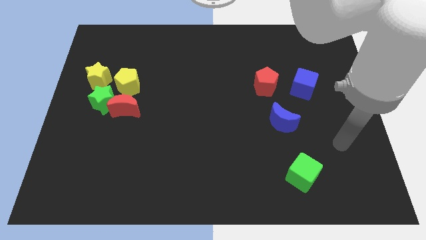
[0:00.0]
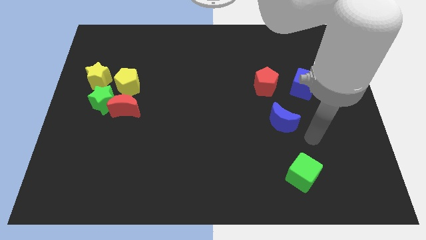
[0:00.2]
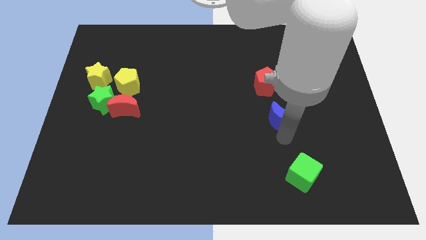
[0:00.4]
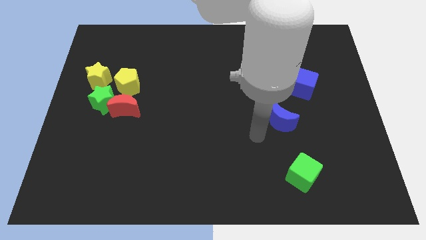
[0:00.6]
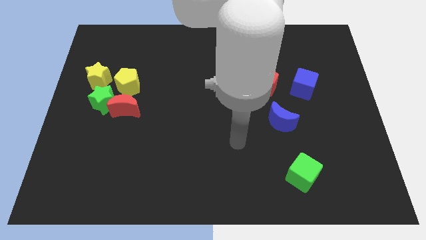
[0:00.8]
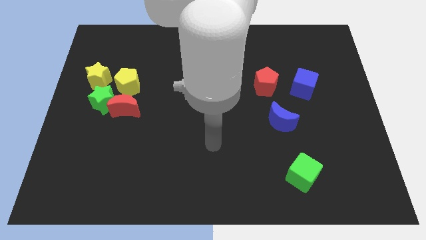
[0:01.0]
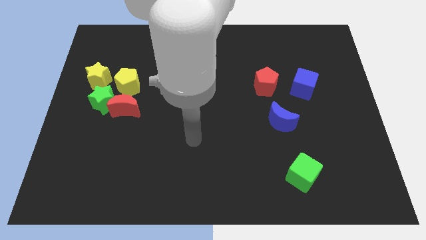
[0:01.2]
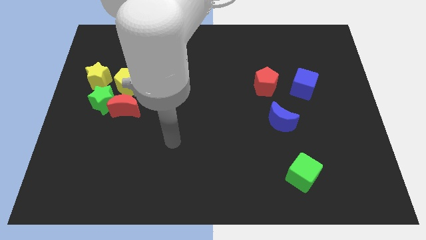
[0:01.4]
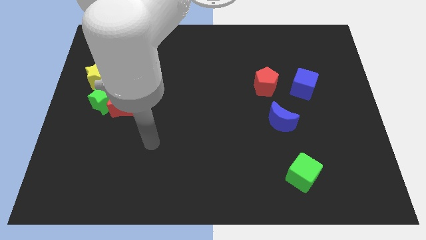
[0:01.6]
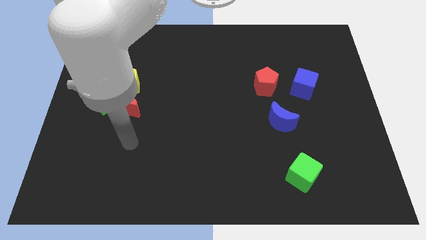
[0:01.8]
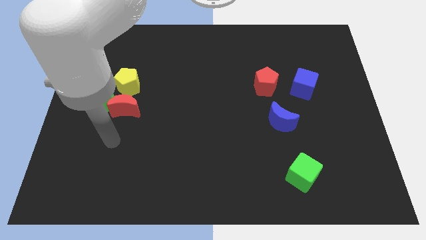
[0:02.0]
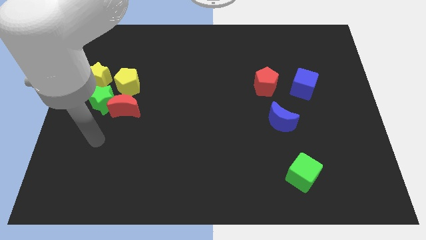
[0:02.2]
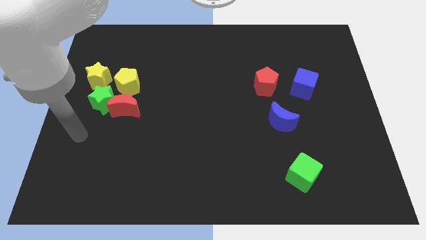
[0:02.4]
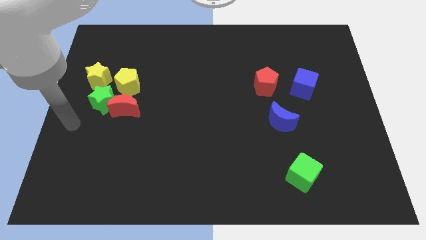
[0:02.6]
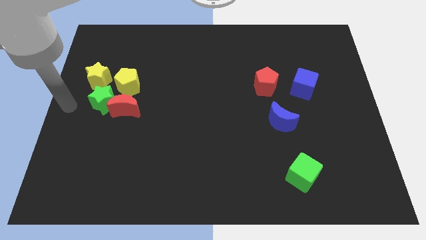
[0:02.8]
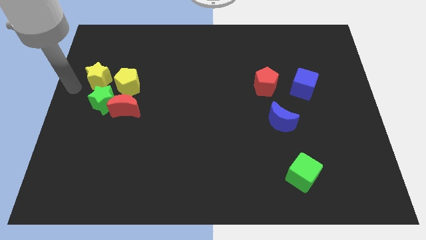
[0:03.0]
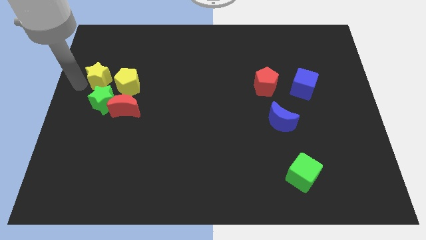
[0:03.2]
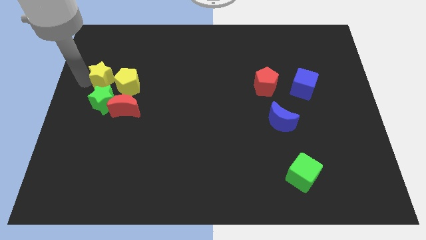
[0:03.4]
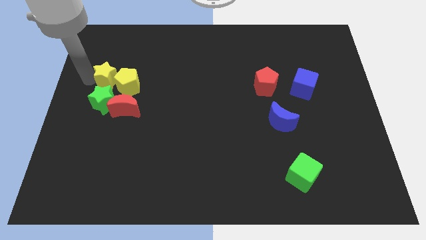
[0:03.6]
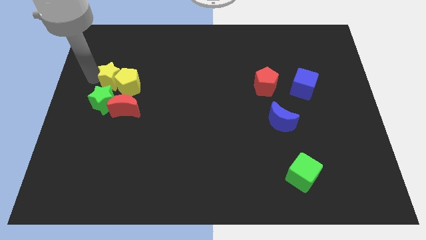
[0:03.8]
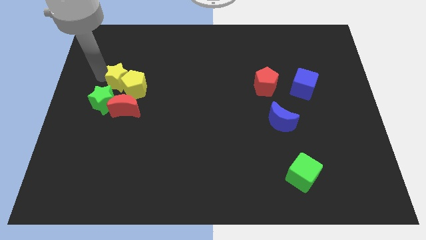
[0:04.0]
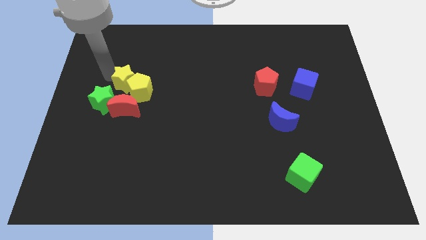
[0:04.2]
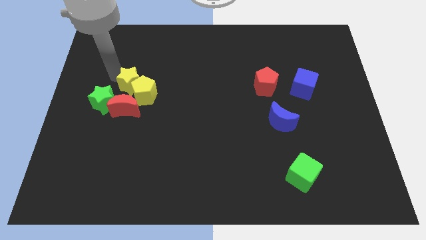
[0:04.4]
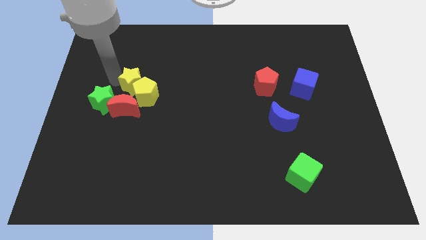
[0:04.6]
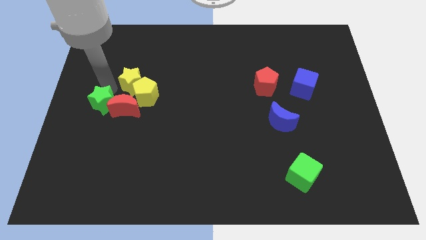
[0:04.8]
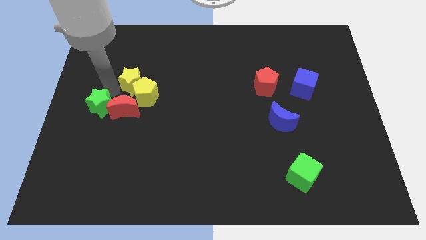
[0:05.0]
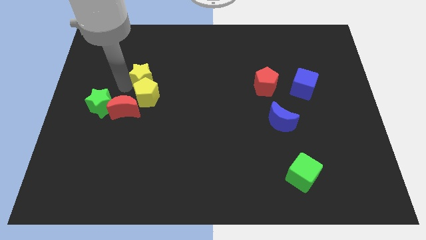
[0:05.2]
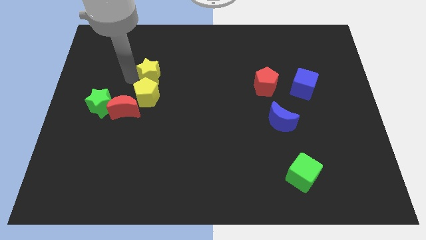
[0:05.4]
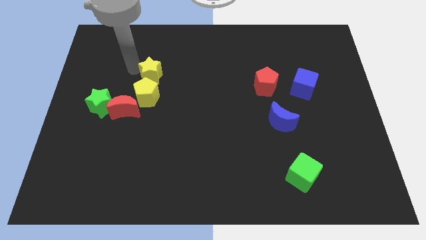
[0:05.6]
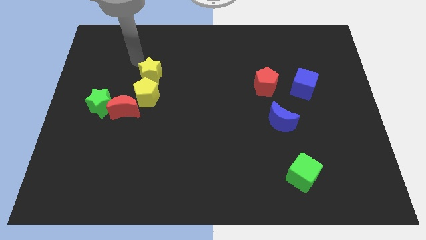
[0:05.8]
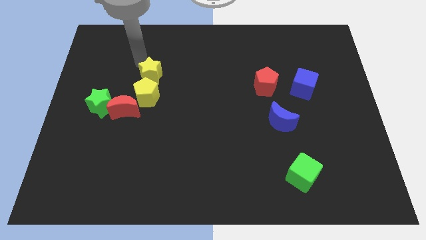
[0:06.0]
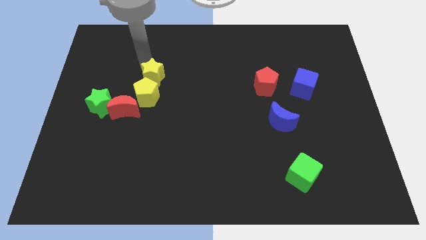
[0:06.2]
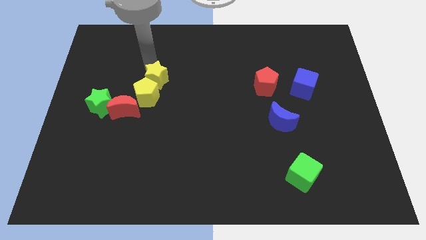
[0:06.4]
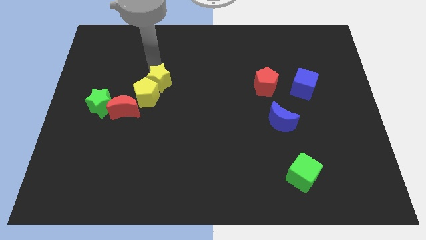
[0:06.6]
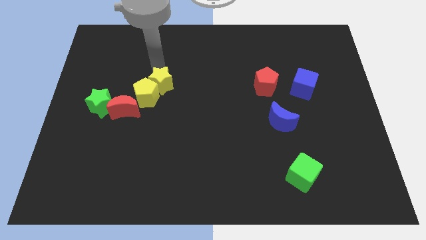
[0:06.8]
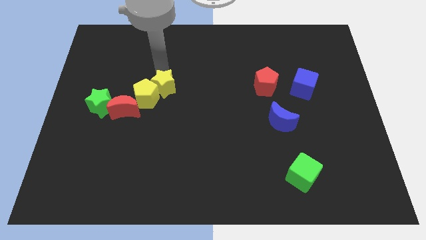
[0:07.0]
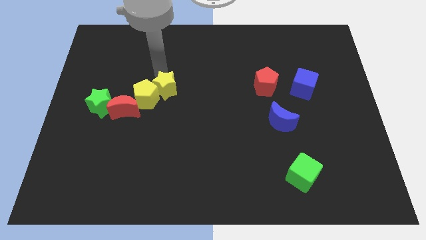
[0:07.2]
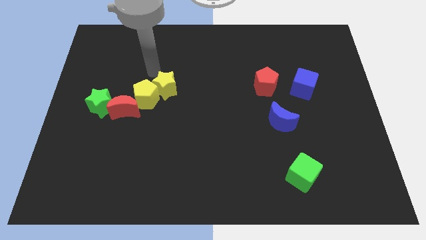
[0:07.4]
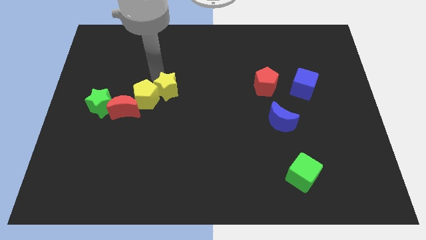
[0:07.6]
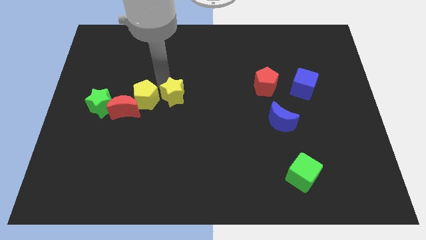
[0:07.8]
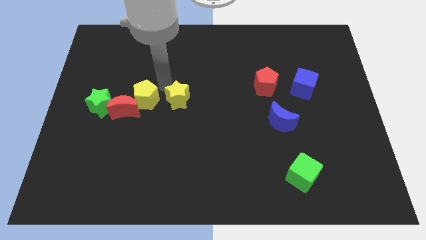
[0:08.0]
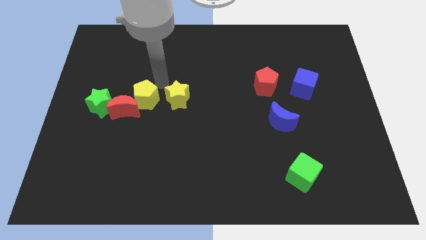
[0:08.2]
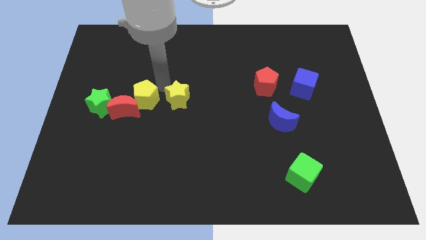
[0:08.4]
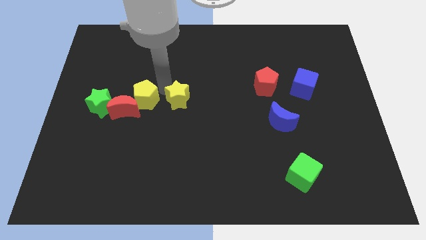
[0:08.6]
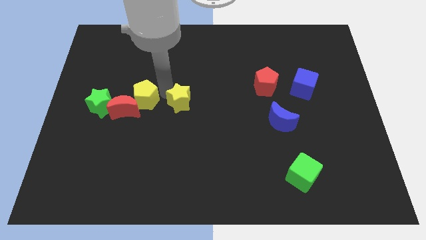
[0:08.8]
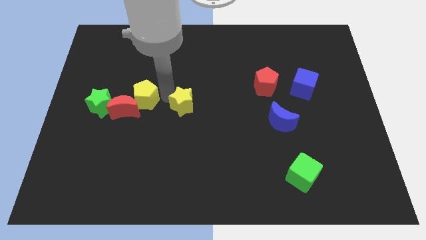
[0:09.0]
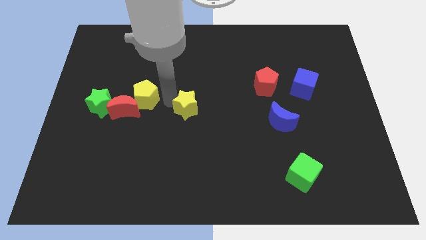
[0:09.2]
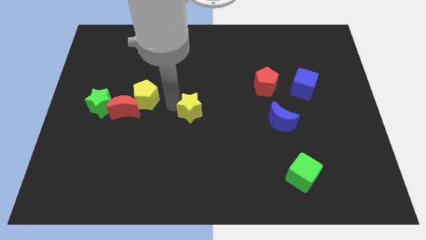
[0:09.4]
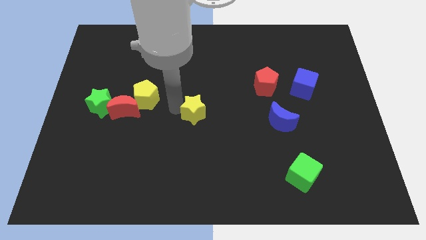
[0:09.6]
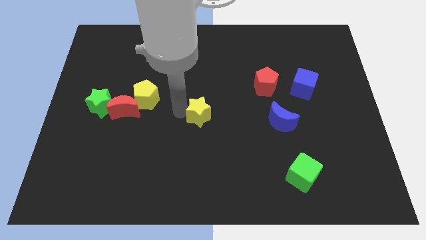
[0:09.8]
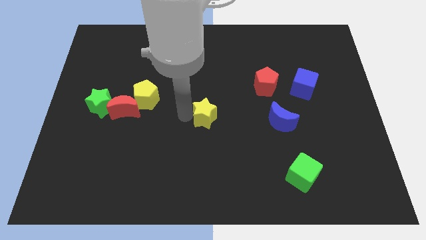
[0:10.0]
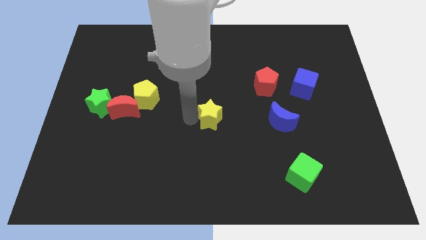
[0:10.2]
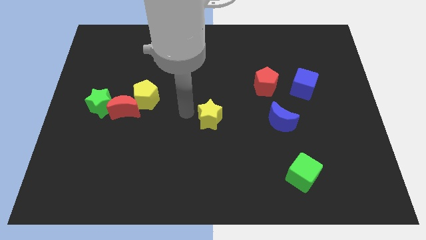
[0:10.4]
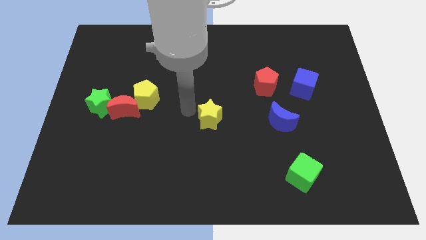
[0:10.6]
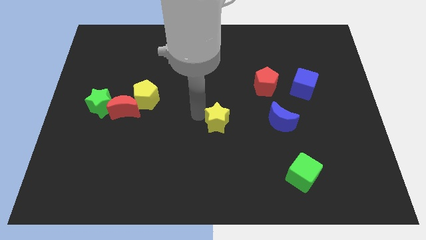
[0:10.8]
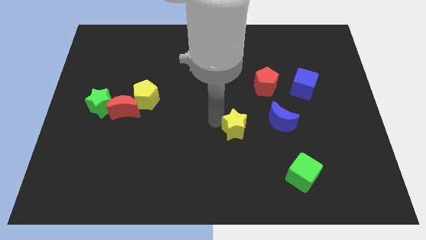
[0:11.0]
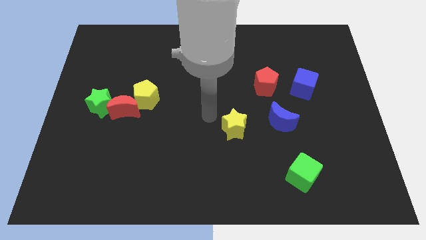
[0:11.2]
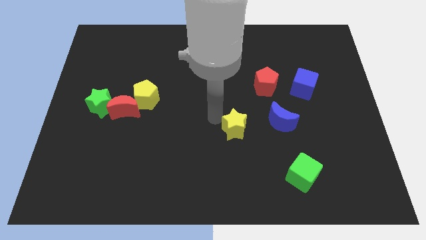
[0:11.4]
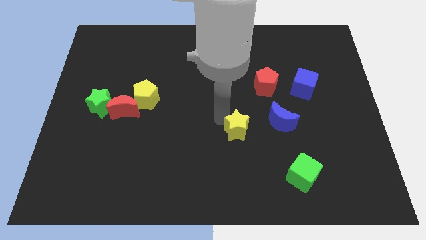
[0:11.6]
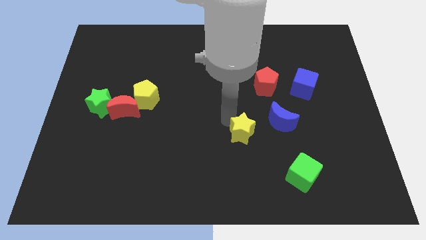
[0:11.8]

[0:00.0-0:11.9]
slide the yellow star diagonally down and to the left of the blue moon

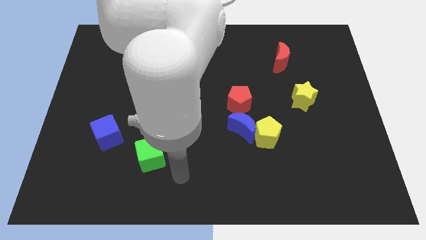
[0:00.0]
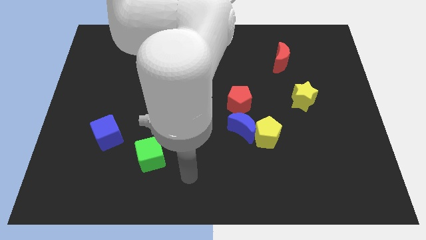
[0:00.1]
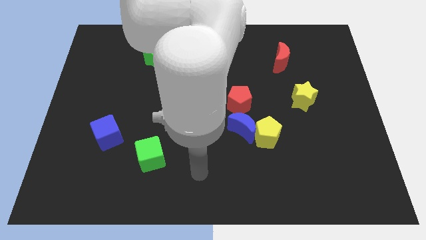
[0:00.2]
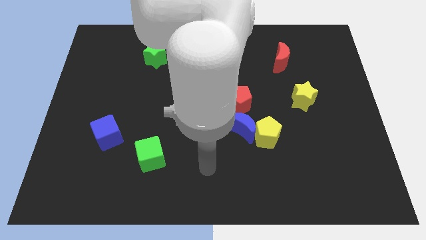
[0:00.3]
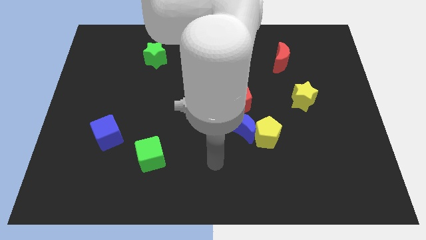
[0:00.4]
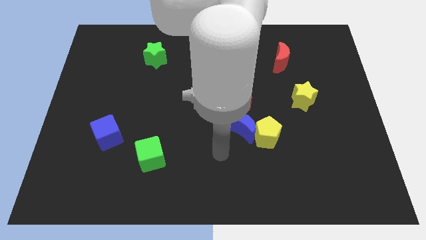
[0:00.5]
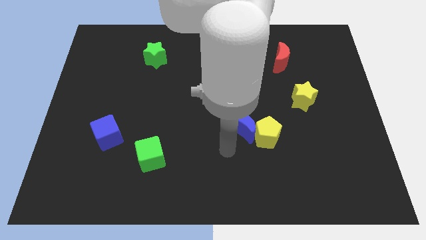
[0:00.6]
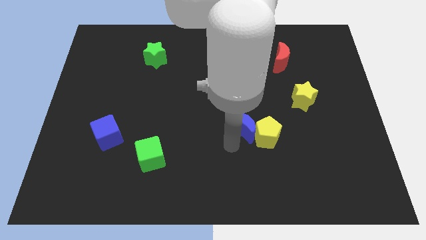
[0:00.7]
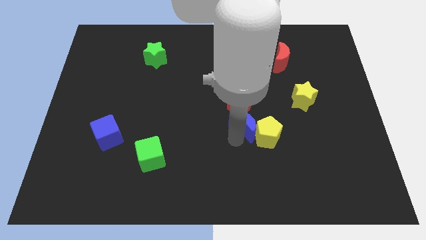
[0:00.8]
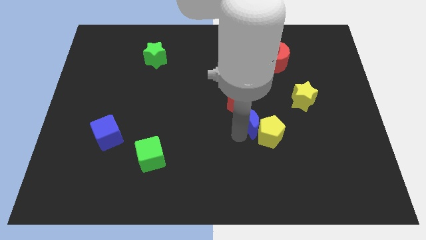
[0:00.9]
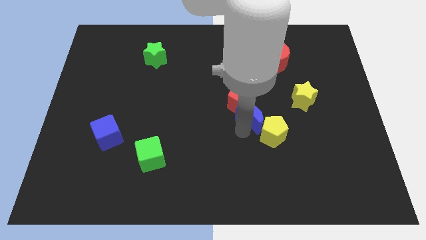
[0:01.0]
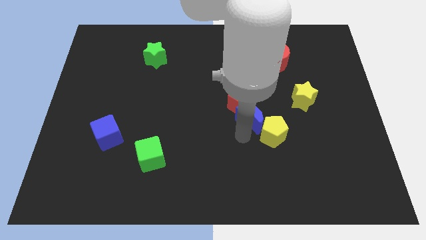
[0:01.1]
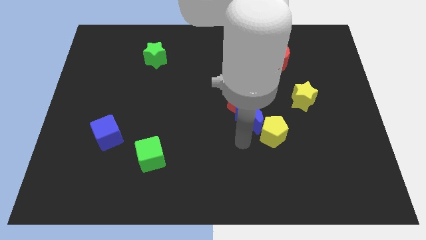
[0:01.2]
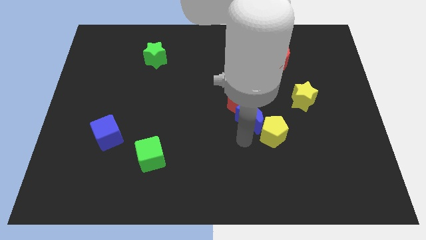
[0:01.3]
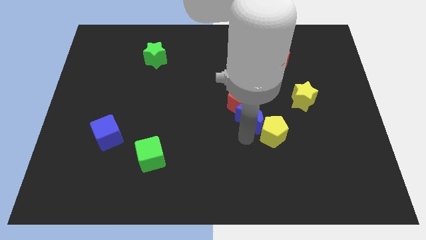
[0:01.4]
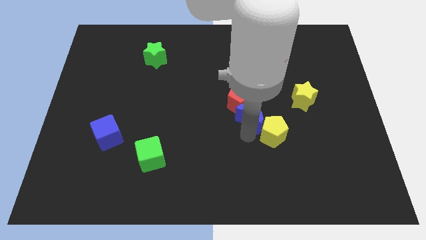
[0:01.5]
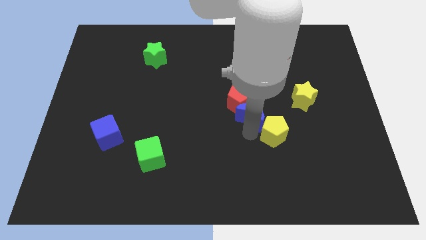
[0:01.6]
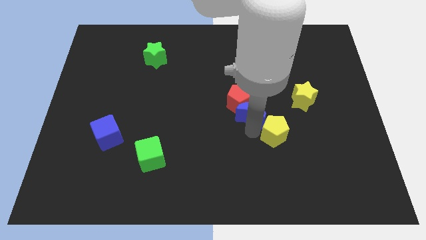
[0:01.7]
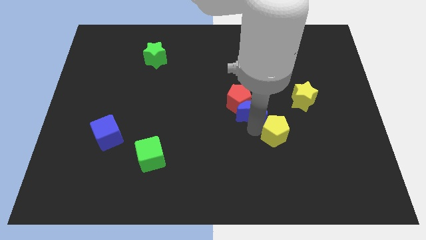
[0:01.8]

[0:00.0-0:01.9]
push the blue moon left of the yellow star

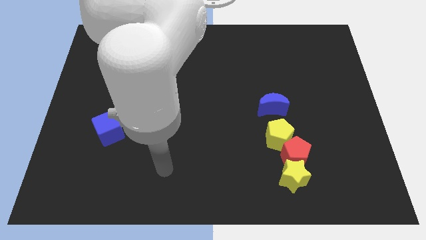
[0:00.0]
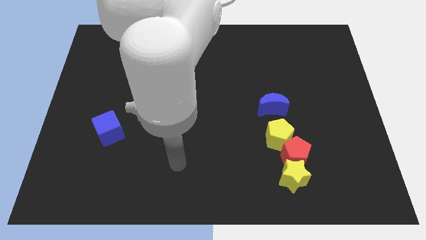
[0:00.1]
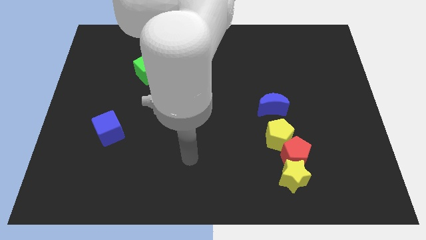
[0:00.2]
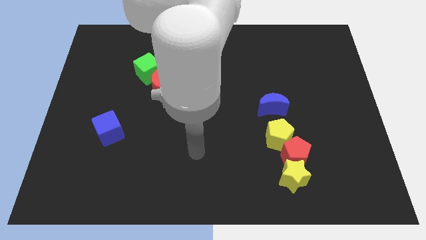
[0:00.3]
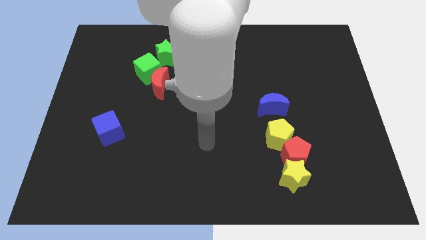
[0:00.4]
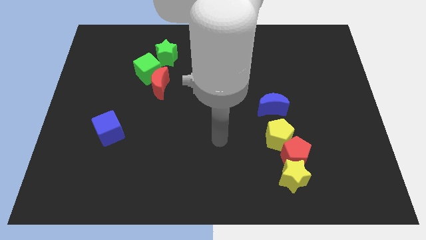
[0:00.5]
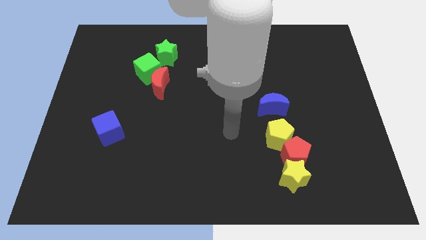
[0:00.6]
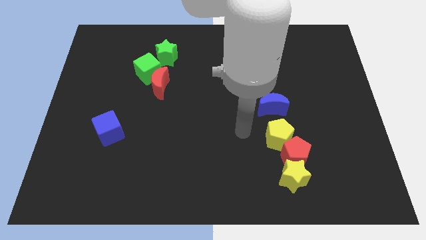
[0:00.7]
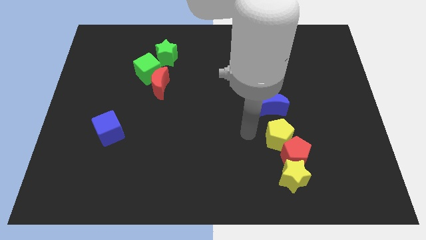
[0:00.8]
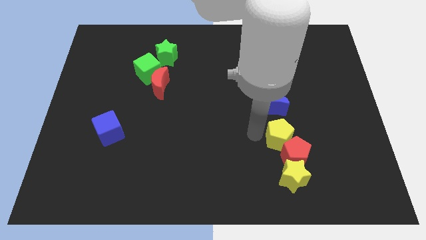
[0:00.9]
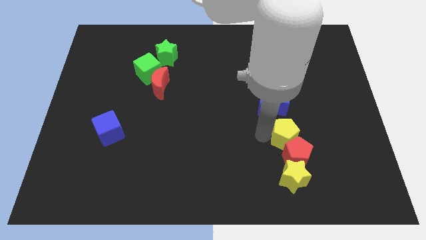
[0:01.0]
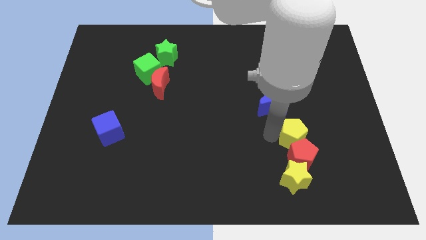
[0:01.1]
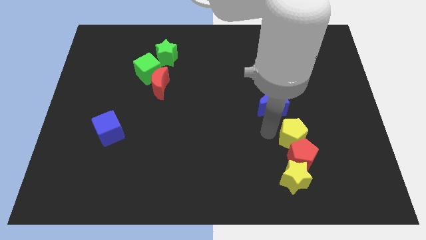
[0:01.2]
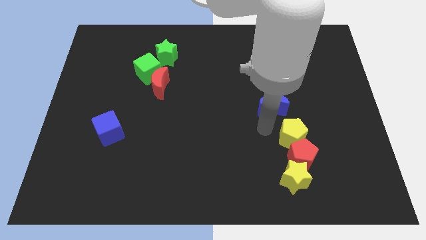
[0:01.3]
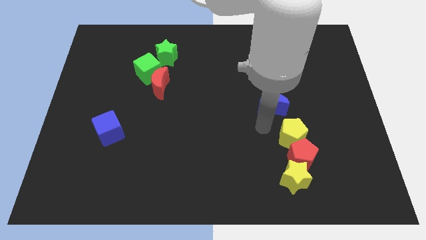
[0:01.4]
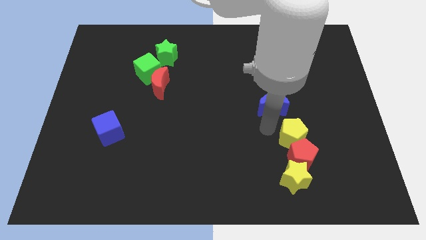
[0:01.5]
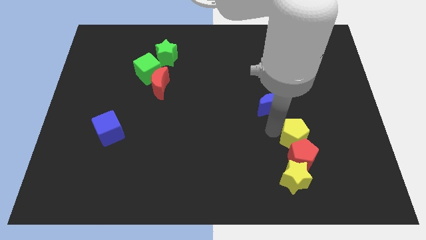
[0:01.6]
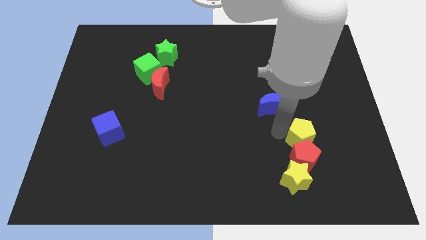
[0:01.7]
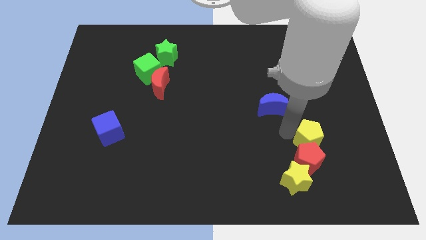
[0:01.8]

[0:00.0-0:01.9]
move the yellow pentagon to the top right side of the yellow star
